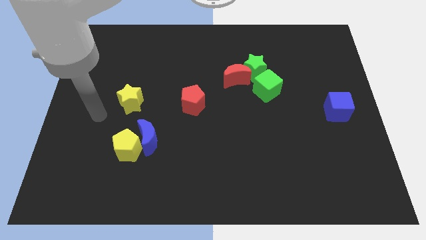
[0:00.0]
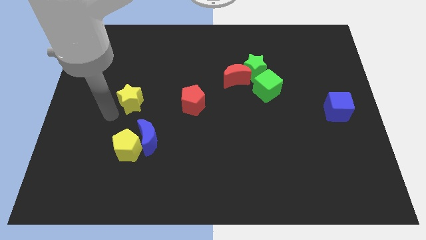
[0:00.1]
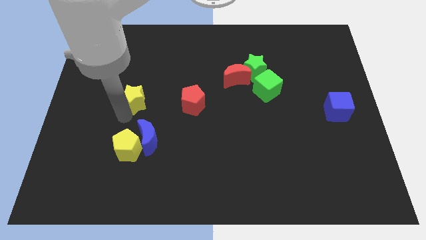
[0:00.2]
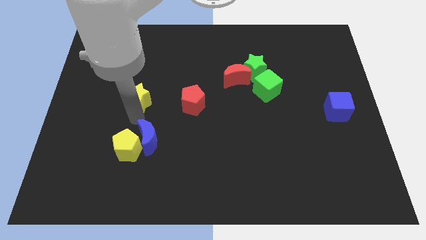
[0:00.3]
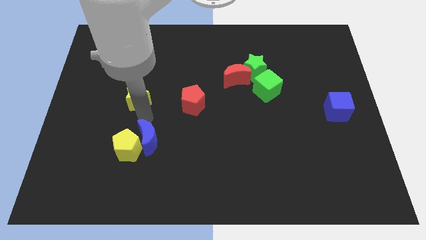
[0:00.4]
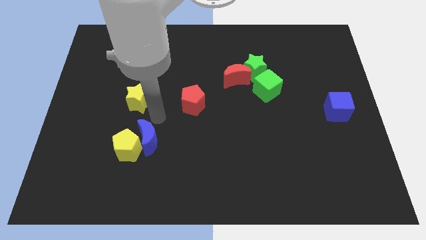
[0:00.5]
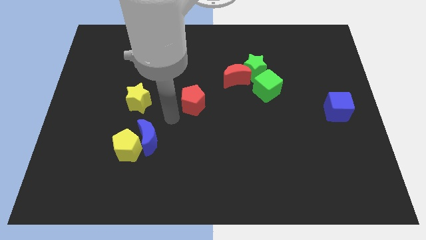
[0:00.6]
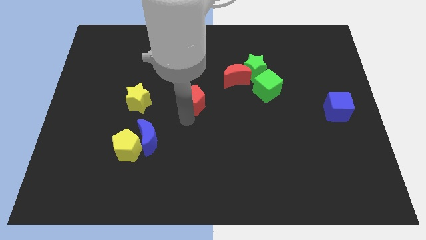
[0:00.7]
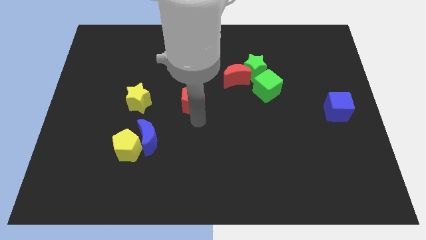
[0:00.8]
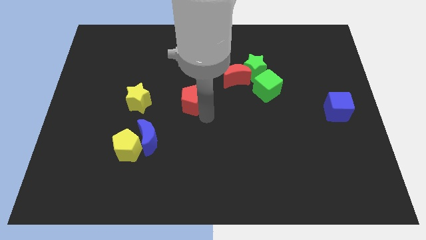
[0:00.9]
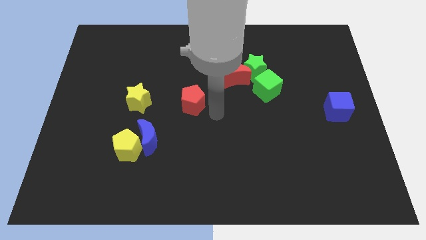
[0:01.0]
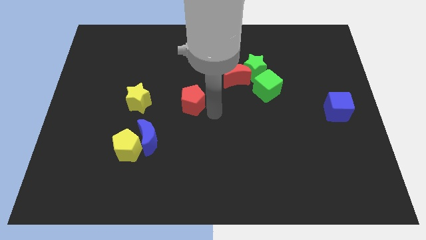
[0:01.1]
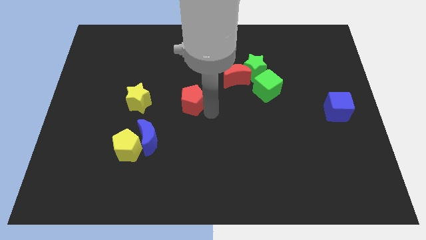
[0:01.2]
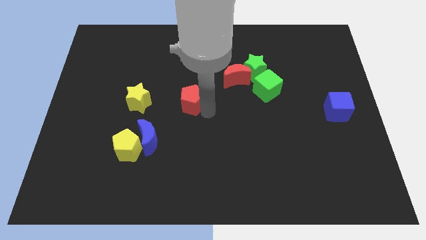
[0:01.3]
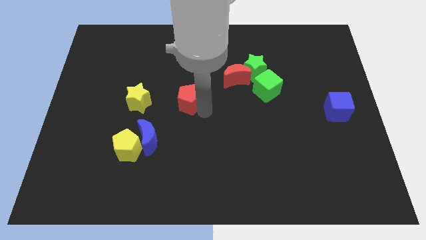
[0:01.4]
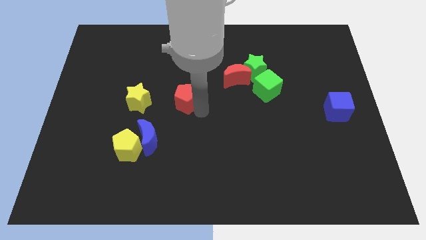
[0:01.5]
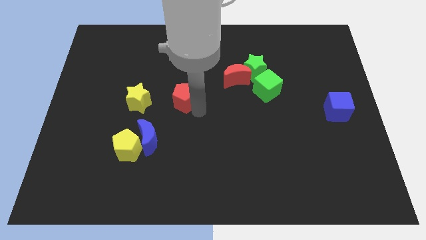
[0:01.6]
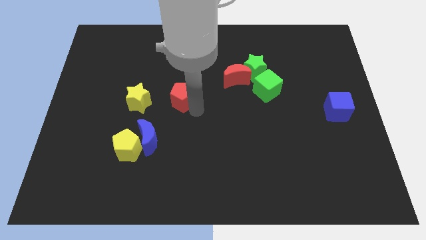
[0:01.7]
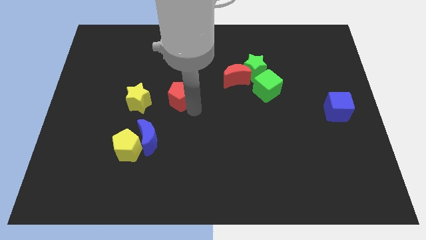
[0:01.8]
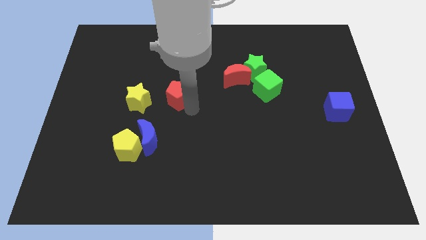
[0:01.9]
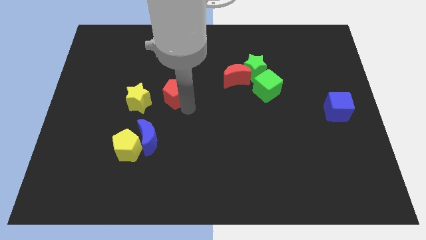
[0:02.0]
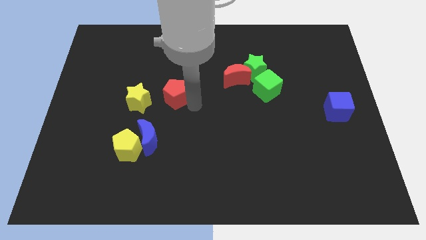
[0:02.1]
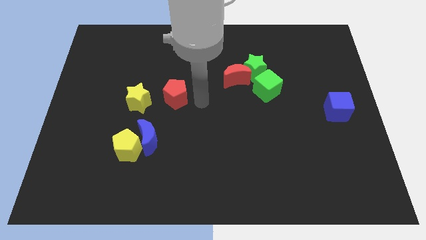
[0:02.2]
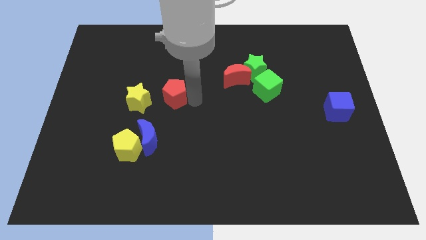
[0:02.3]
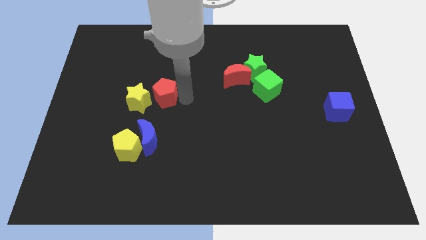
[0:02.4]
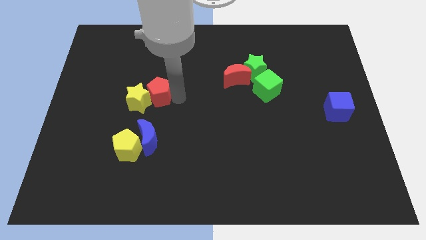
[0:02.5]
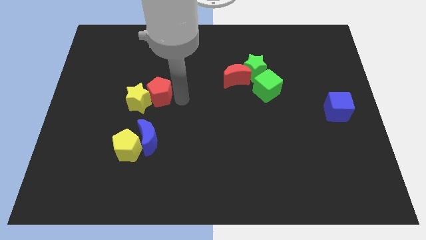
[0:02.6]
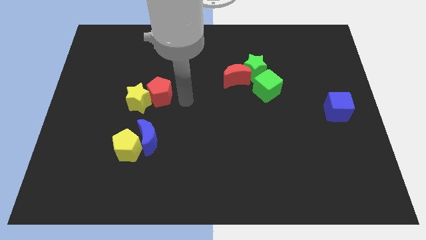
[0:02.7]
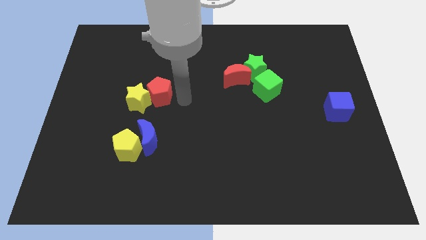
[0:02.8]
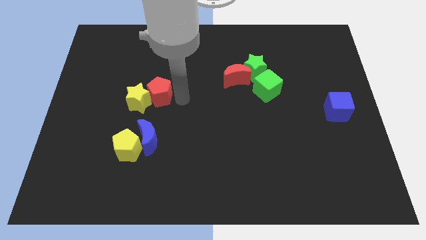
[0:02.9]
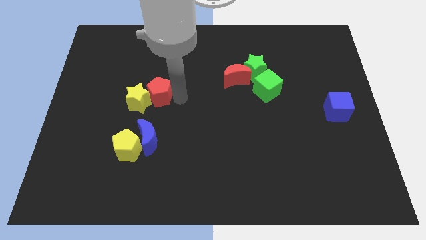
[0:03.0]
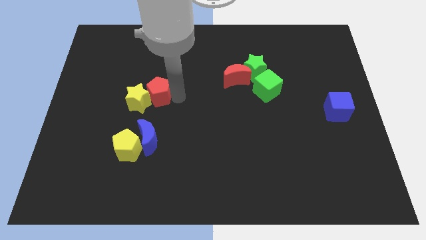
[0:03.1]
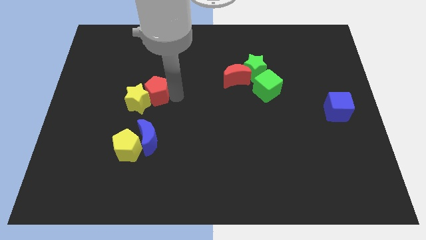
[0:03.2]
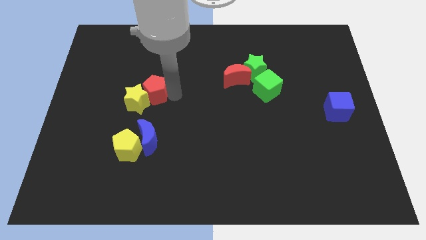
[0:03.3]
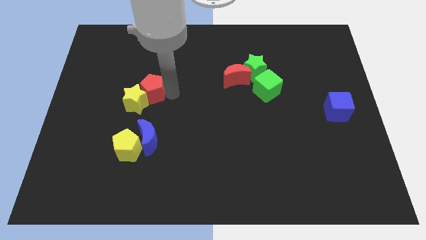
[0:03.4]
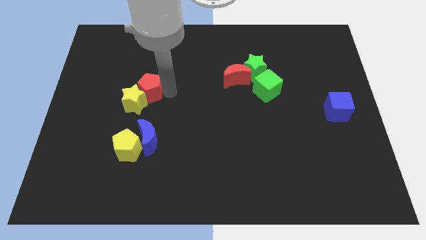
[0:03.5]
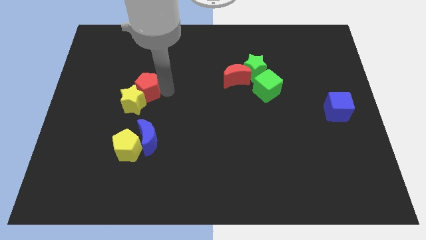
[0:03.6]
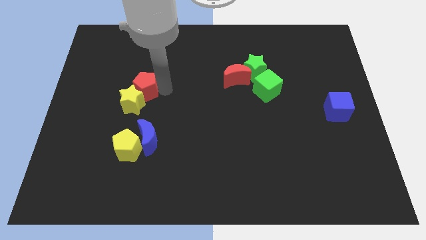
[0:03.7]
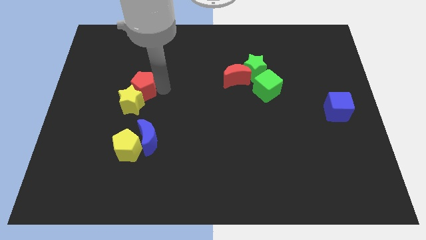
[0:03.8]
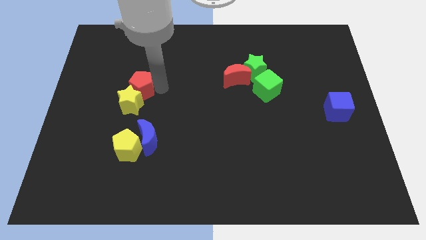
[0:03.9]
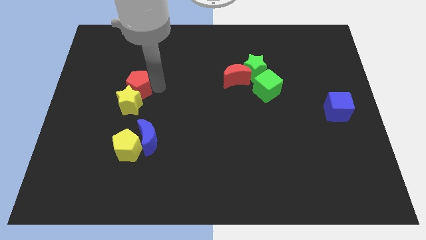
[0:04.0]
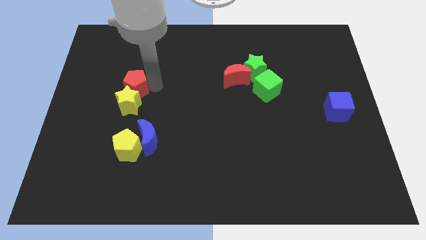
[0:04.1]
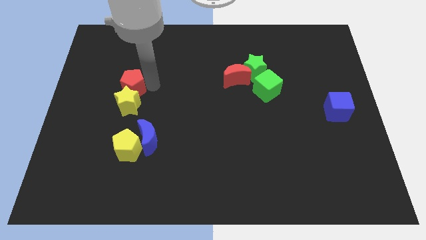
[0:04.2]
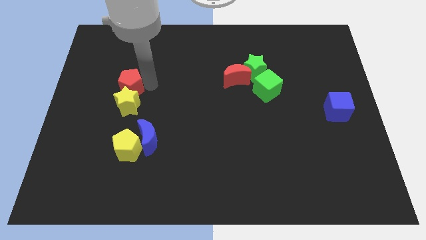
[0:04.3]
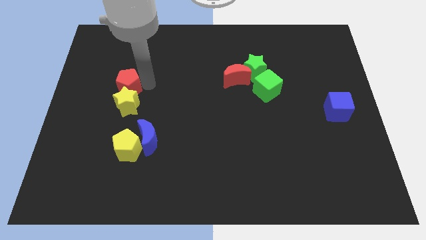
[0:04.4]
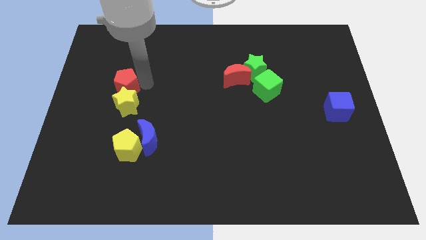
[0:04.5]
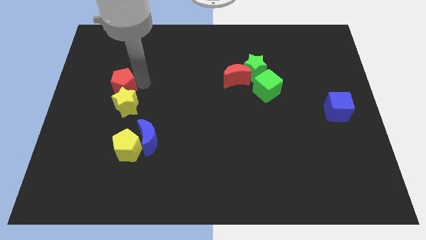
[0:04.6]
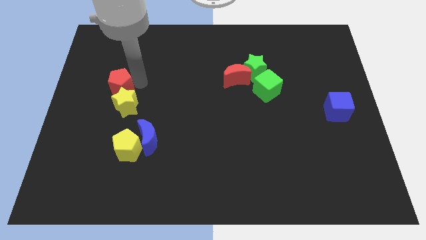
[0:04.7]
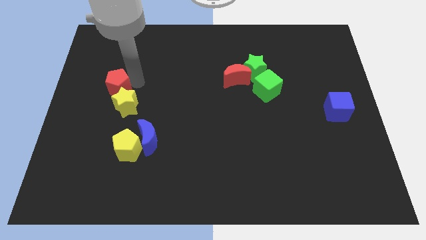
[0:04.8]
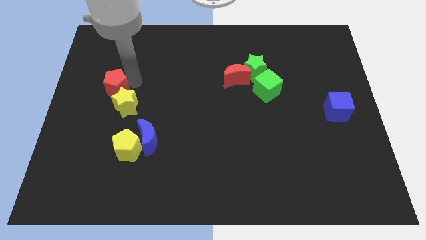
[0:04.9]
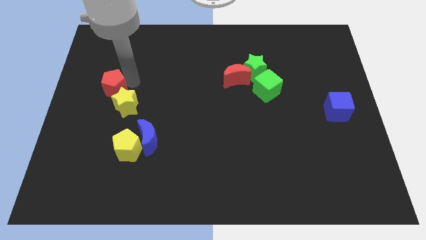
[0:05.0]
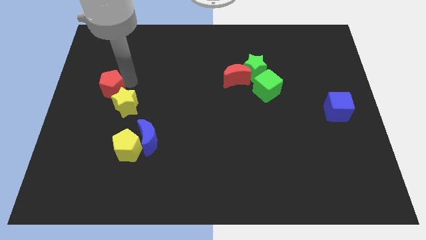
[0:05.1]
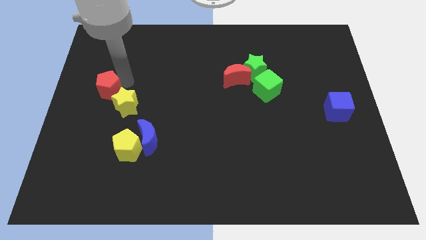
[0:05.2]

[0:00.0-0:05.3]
put the red pentagon to the left side
